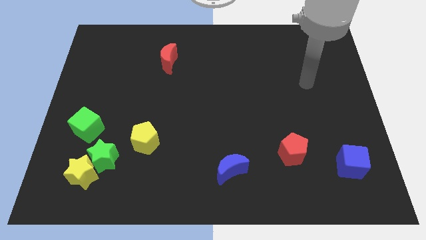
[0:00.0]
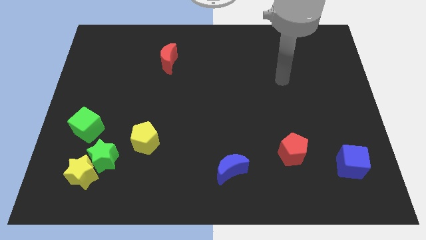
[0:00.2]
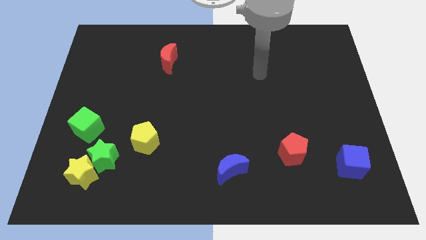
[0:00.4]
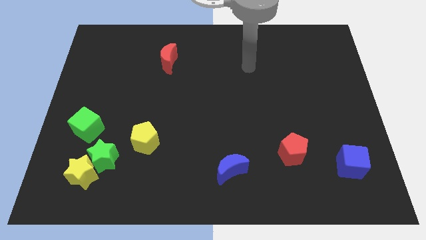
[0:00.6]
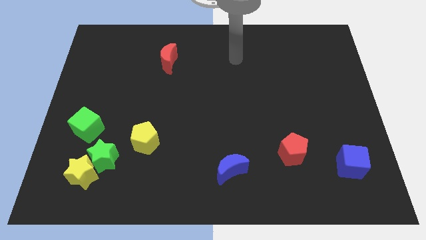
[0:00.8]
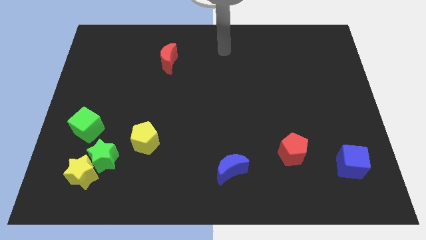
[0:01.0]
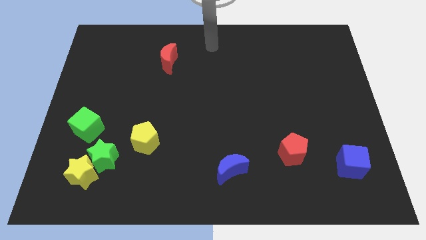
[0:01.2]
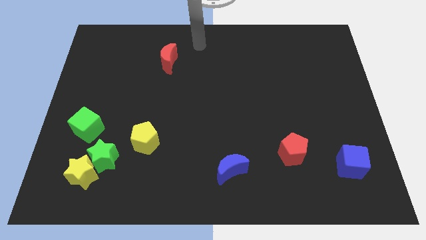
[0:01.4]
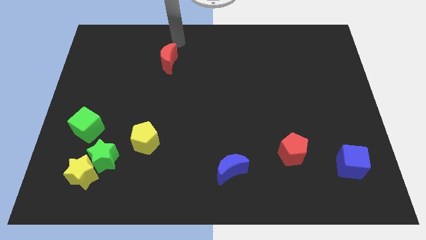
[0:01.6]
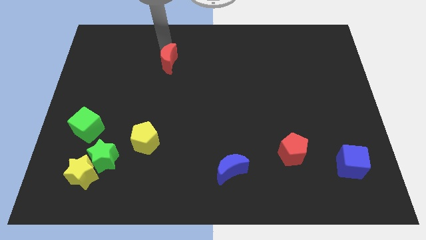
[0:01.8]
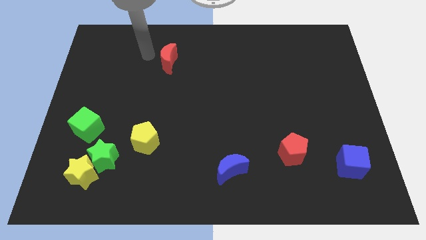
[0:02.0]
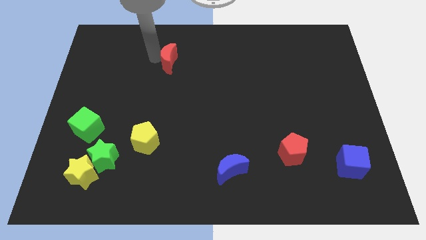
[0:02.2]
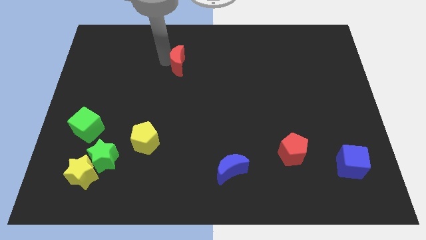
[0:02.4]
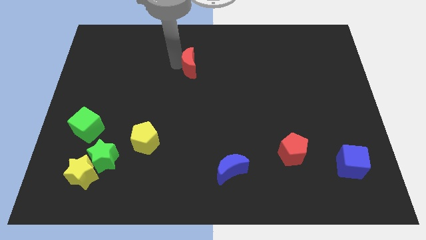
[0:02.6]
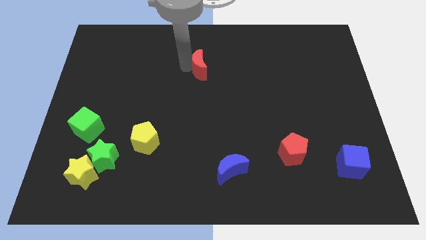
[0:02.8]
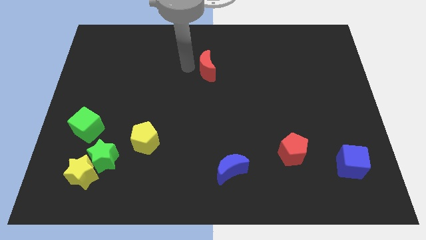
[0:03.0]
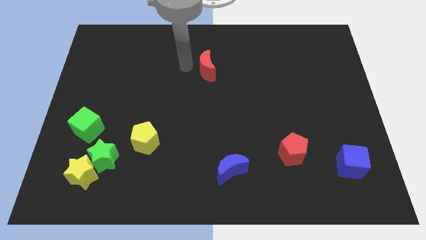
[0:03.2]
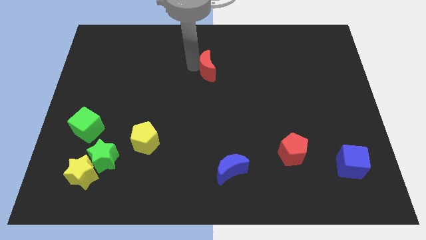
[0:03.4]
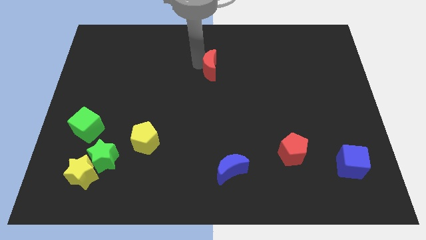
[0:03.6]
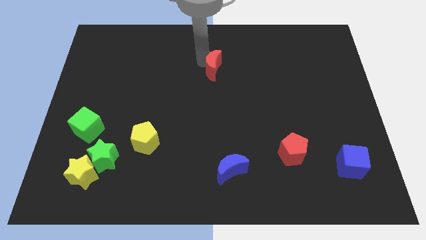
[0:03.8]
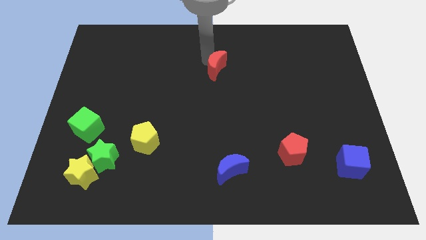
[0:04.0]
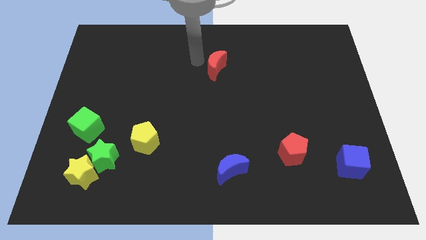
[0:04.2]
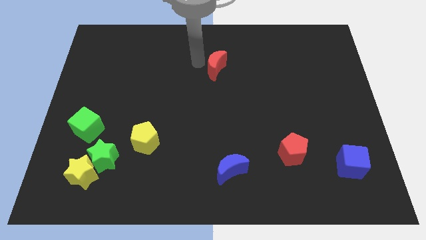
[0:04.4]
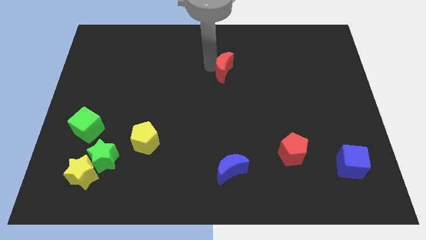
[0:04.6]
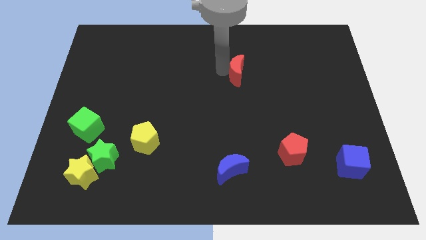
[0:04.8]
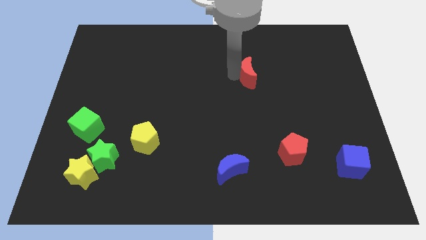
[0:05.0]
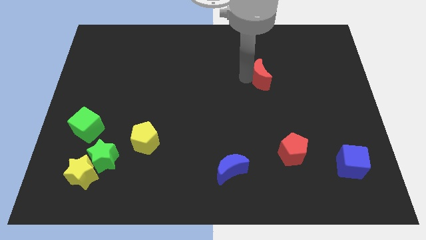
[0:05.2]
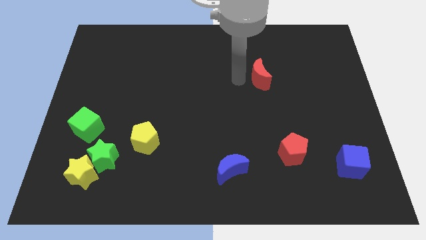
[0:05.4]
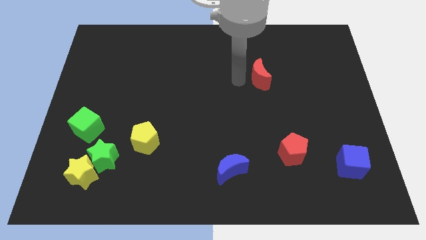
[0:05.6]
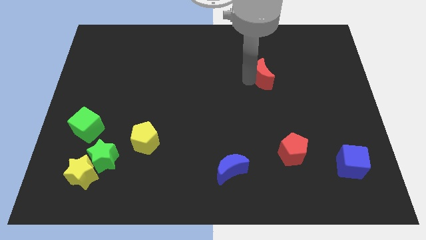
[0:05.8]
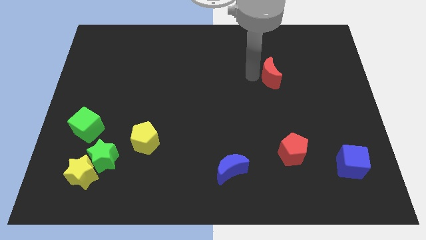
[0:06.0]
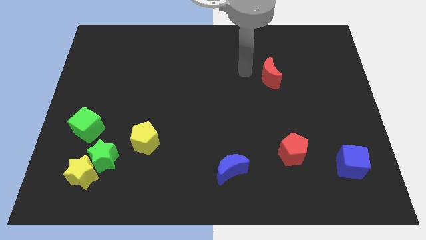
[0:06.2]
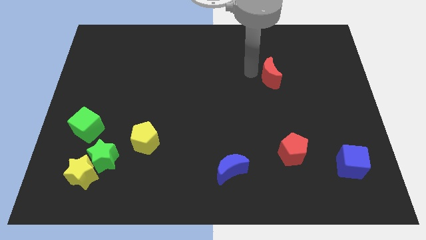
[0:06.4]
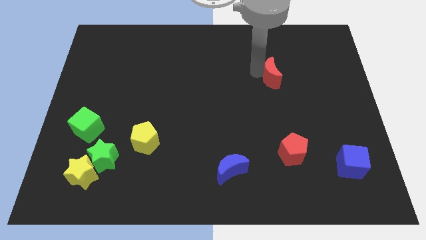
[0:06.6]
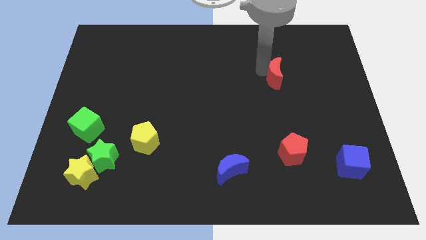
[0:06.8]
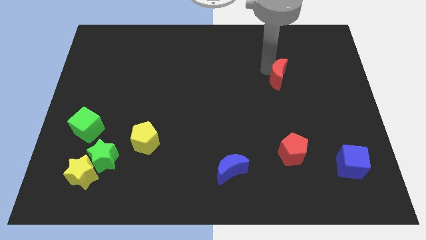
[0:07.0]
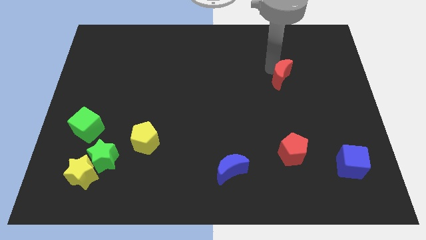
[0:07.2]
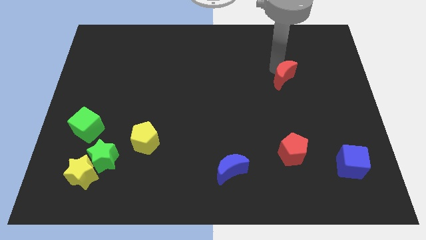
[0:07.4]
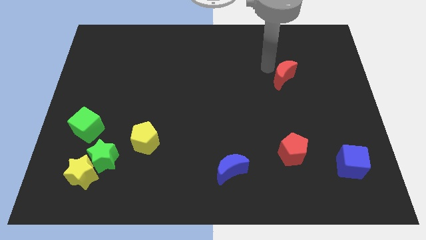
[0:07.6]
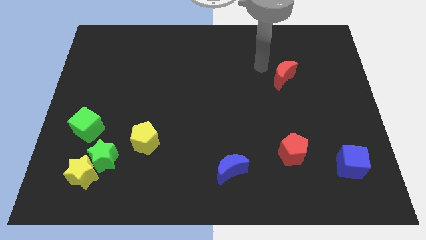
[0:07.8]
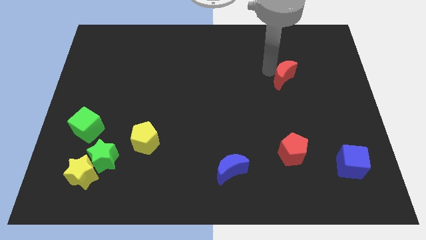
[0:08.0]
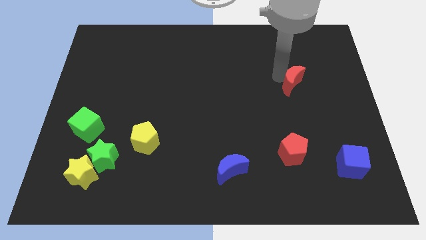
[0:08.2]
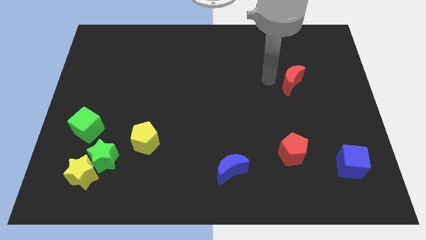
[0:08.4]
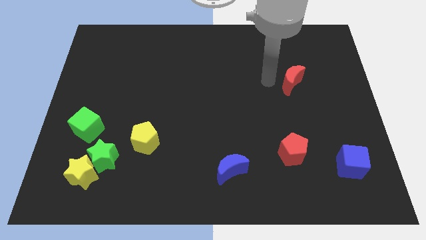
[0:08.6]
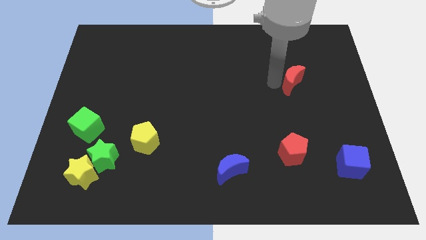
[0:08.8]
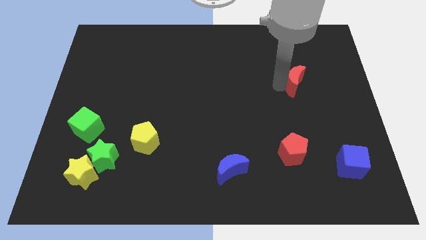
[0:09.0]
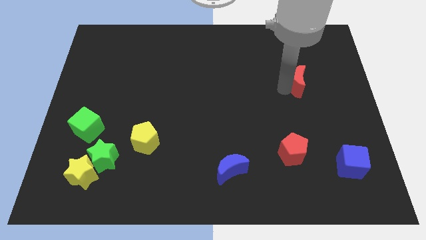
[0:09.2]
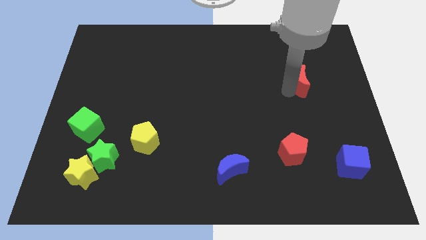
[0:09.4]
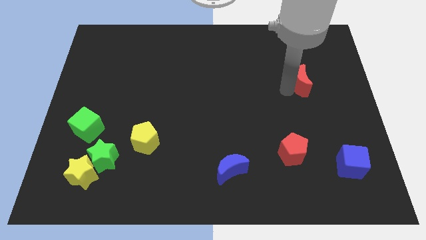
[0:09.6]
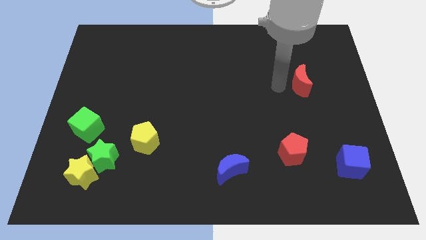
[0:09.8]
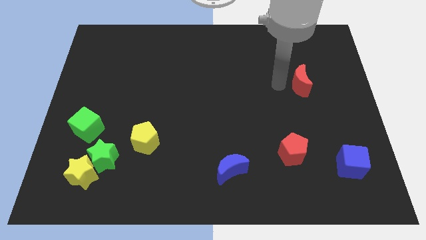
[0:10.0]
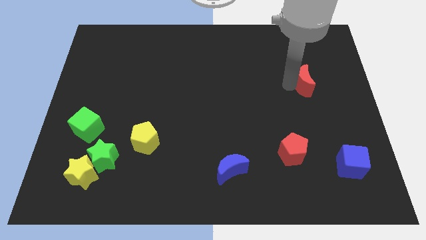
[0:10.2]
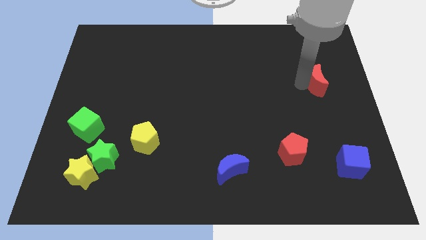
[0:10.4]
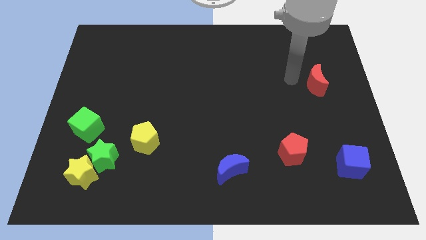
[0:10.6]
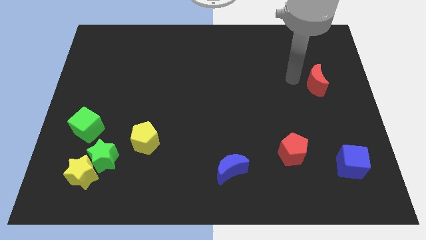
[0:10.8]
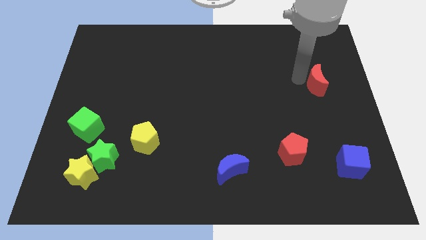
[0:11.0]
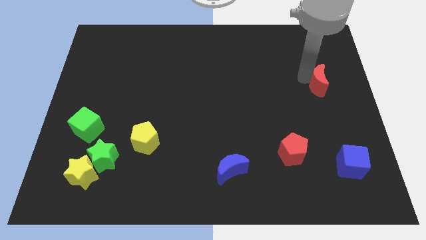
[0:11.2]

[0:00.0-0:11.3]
push the red moon to the center right
